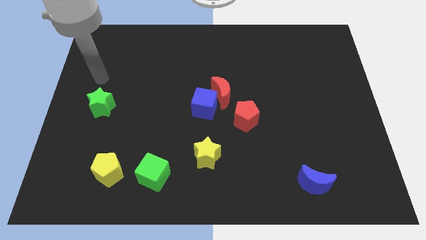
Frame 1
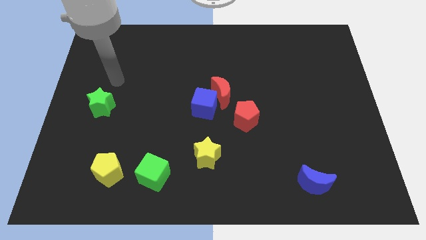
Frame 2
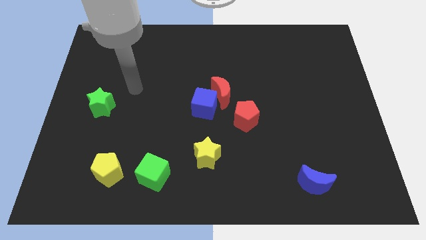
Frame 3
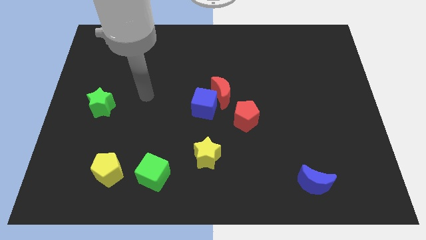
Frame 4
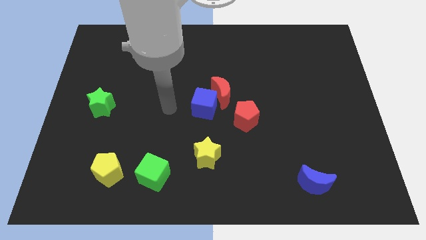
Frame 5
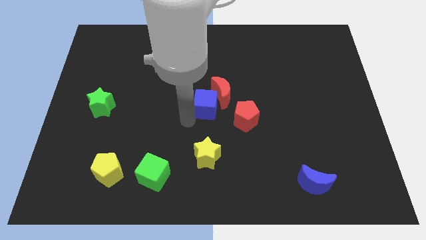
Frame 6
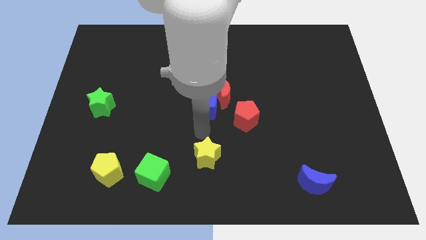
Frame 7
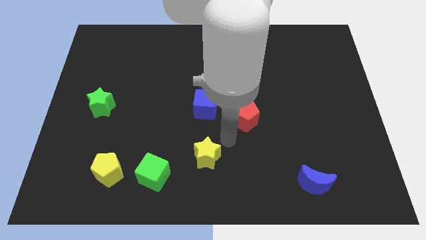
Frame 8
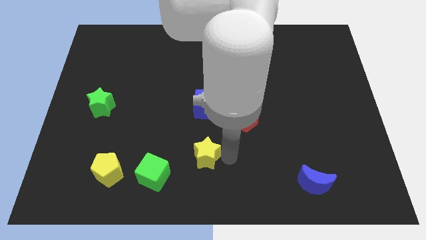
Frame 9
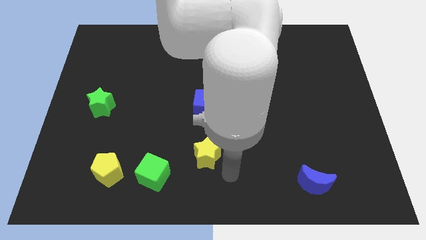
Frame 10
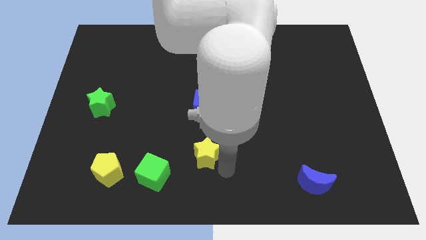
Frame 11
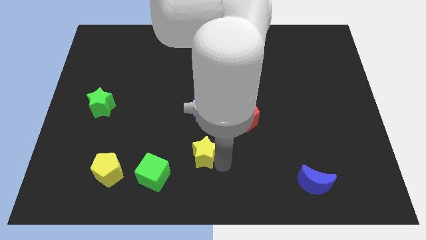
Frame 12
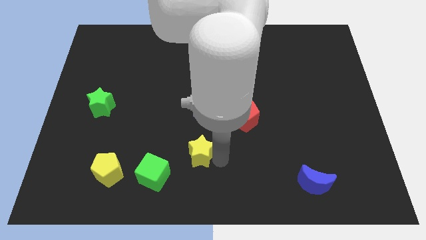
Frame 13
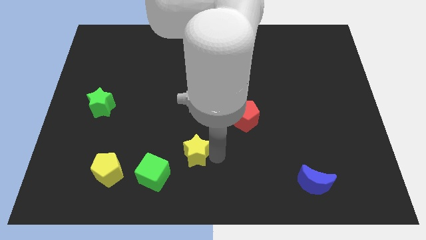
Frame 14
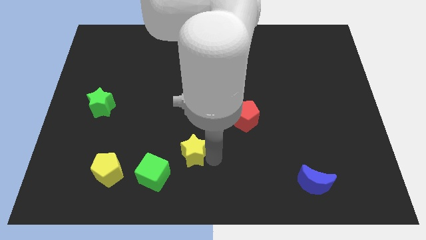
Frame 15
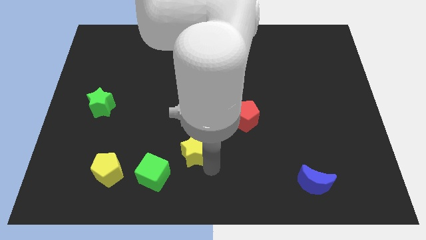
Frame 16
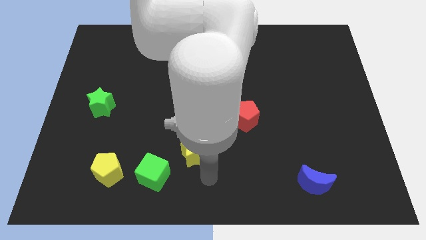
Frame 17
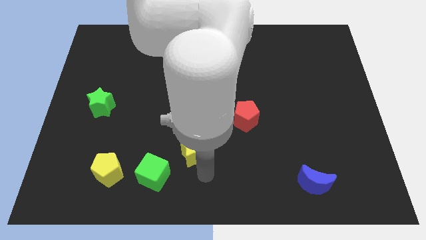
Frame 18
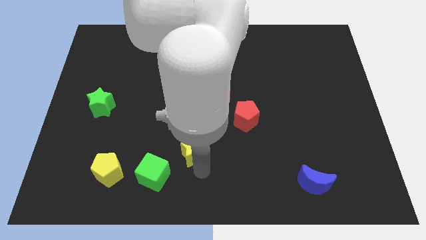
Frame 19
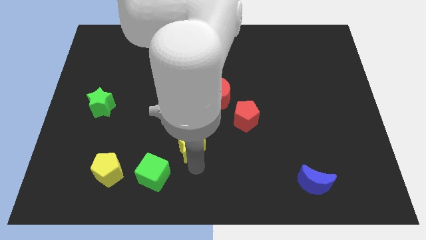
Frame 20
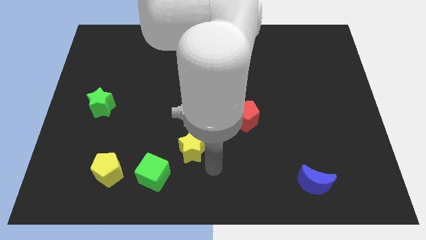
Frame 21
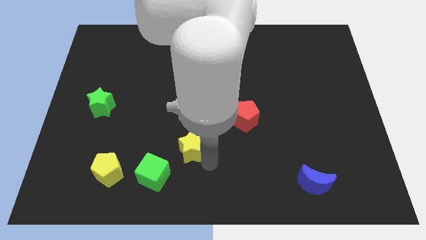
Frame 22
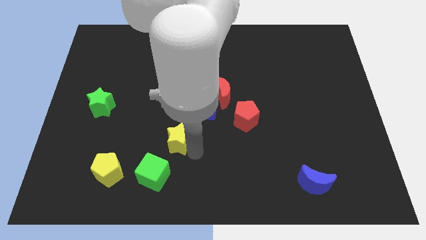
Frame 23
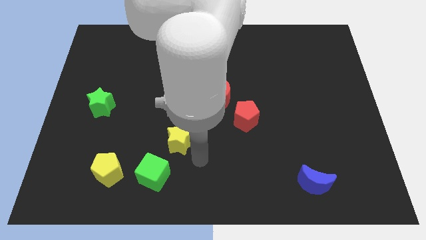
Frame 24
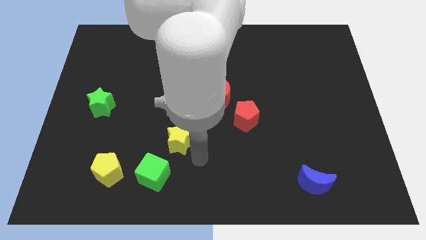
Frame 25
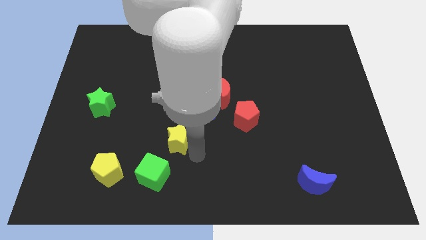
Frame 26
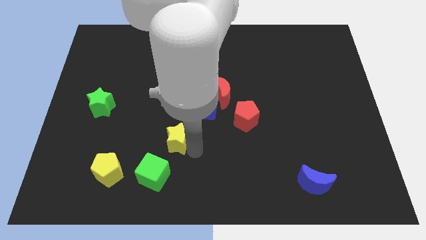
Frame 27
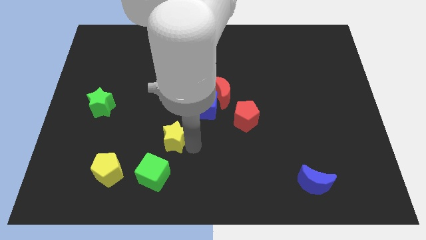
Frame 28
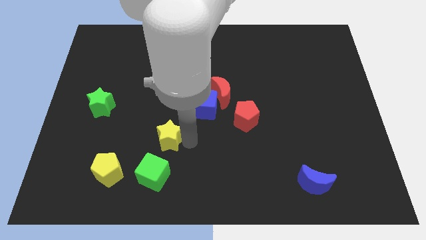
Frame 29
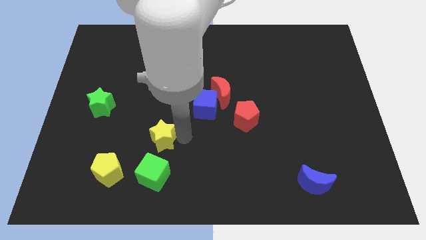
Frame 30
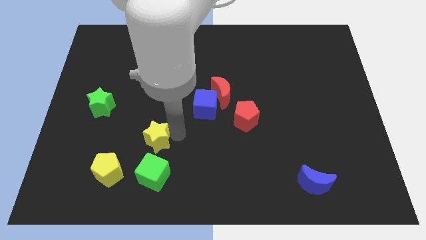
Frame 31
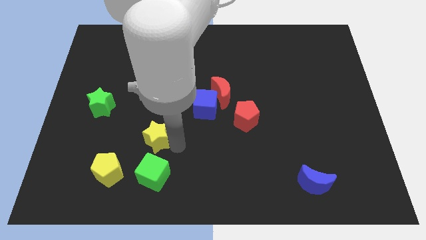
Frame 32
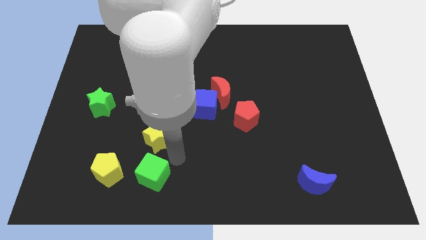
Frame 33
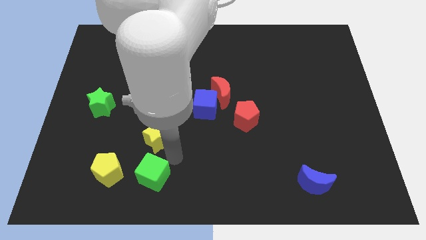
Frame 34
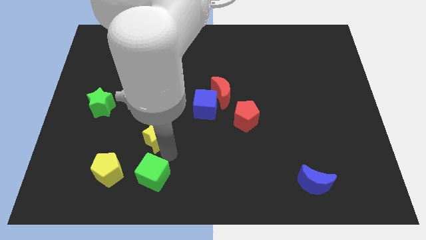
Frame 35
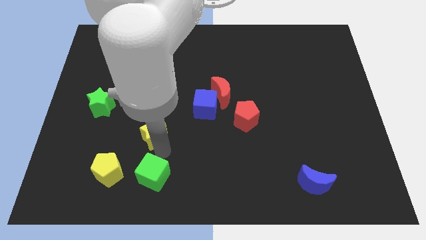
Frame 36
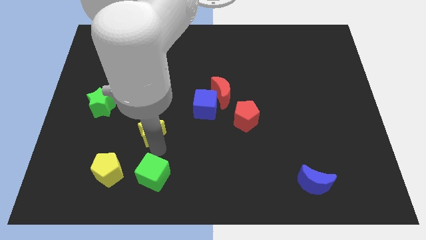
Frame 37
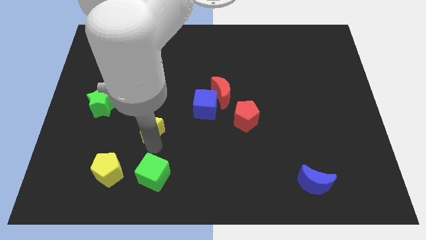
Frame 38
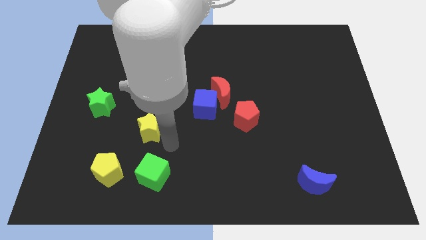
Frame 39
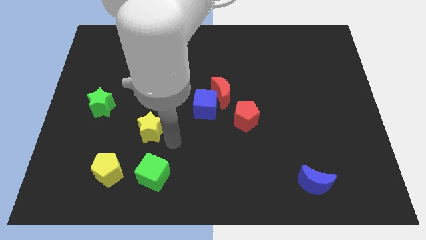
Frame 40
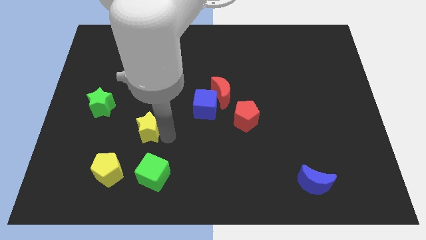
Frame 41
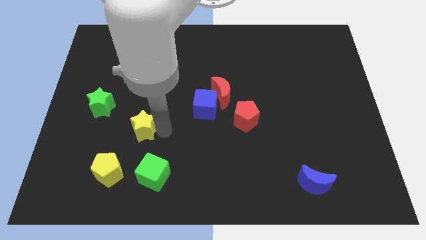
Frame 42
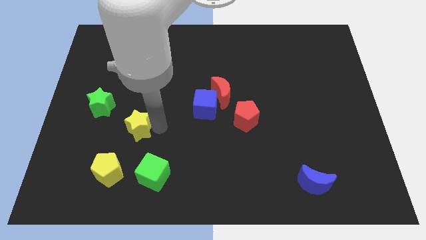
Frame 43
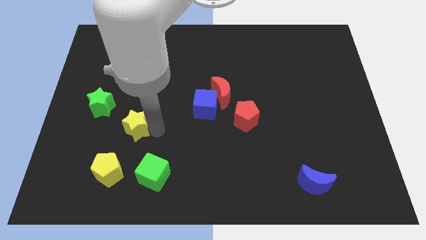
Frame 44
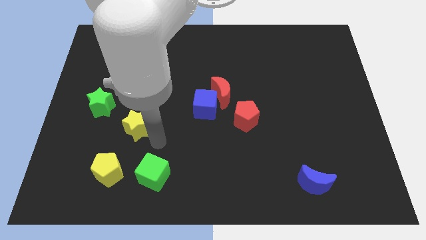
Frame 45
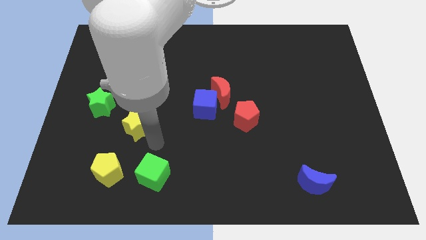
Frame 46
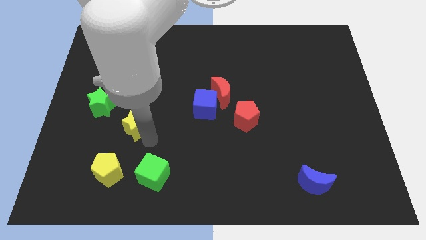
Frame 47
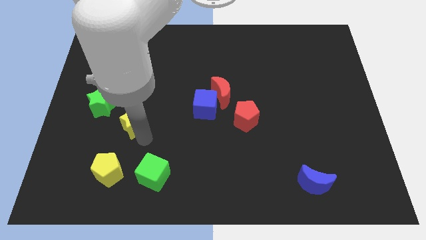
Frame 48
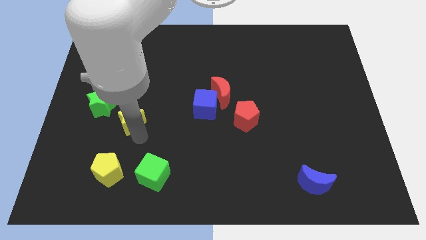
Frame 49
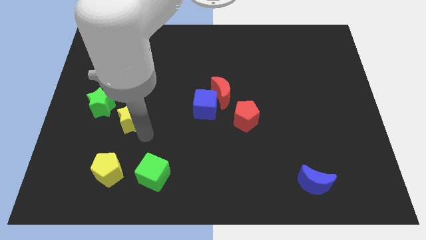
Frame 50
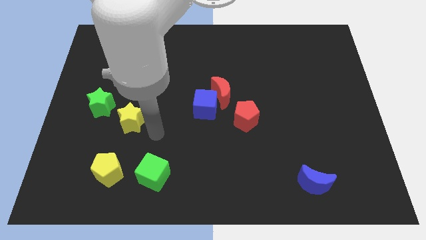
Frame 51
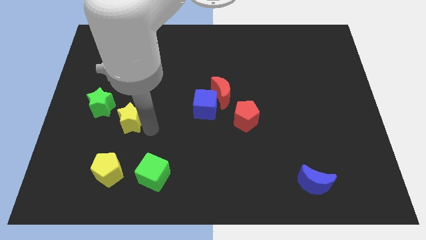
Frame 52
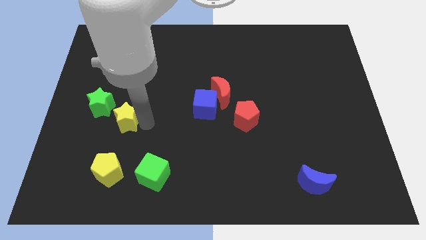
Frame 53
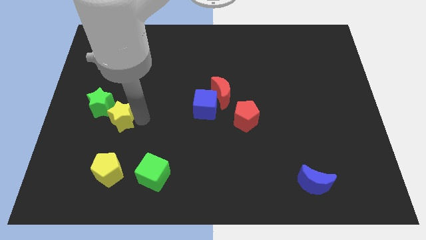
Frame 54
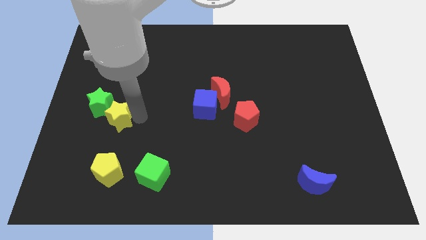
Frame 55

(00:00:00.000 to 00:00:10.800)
push the yellow star towards the green star

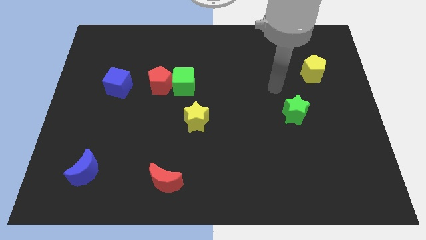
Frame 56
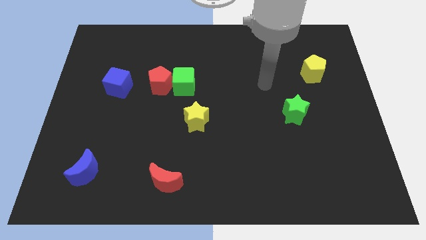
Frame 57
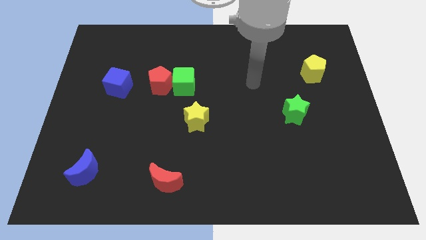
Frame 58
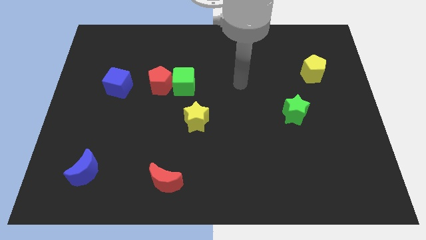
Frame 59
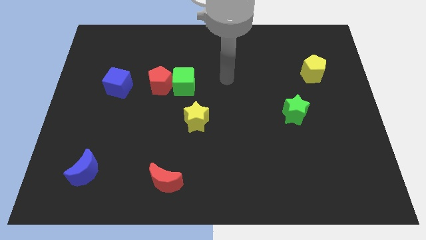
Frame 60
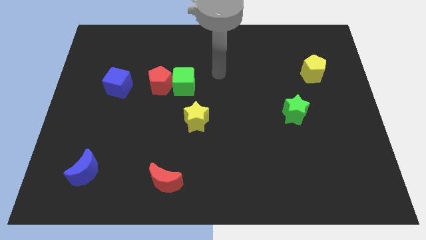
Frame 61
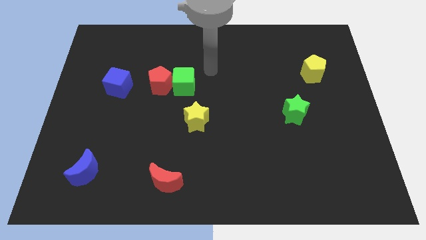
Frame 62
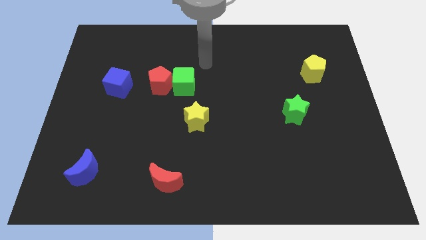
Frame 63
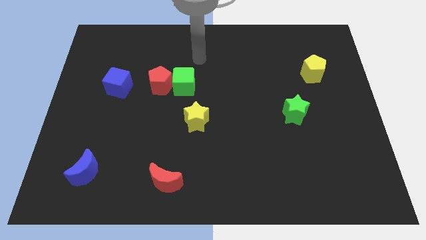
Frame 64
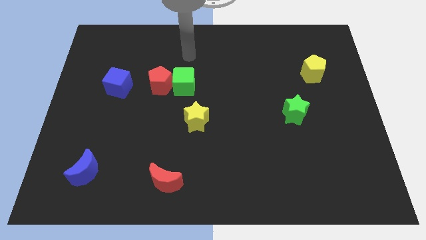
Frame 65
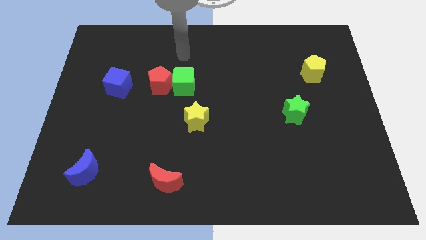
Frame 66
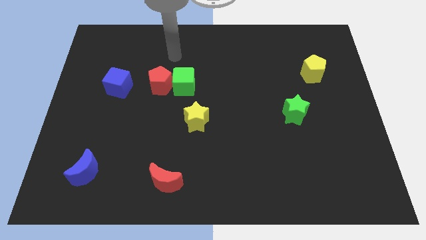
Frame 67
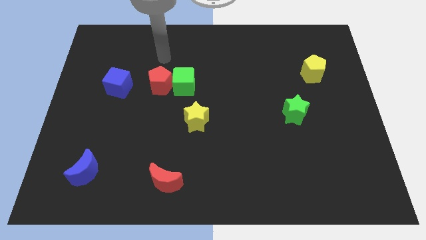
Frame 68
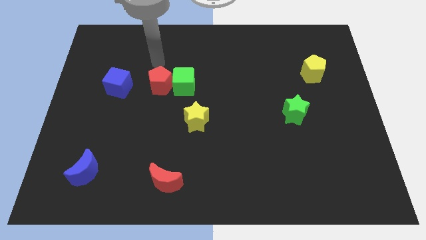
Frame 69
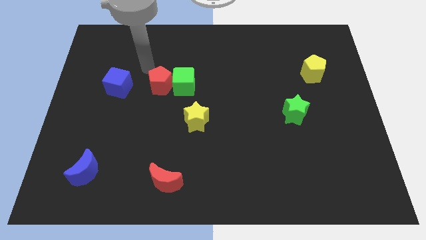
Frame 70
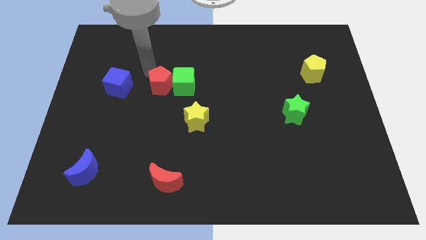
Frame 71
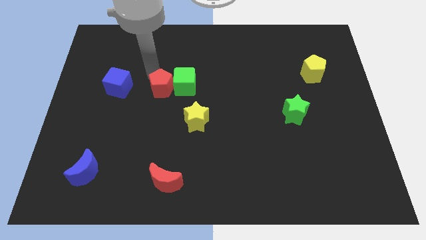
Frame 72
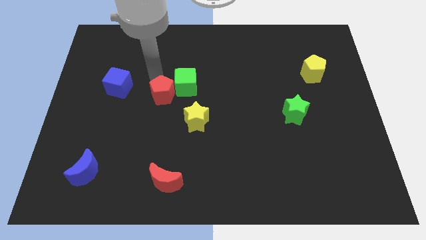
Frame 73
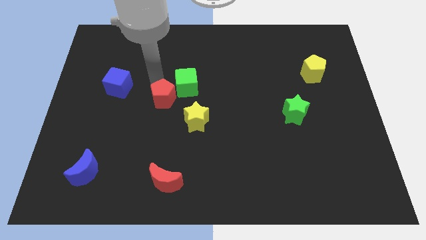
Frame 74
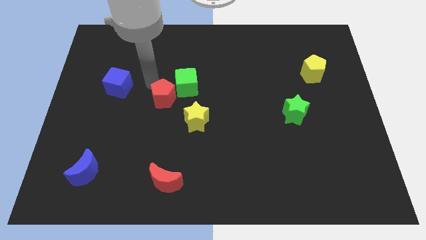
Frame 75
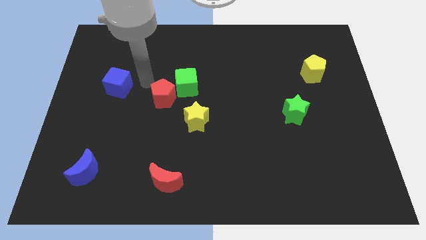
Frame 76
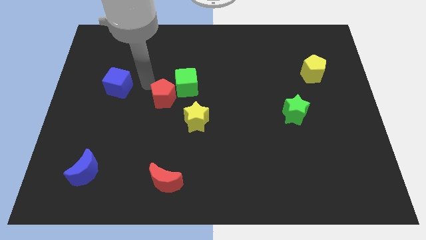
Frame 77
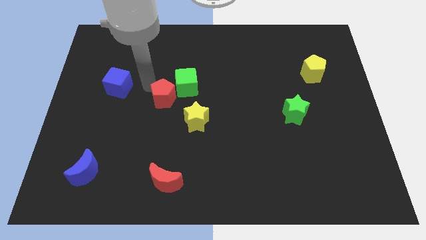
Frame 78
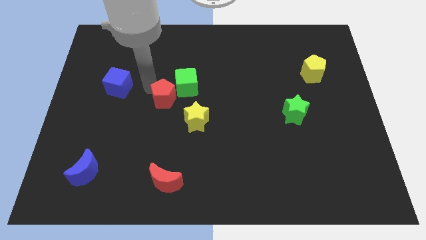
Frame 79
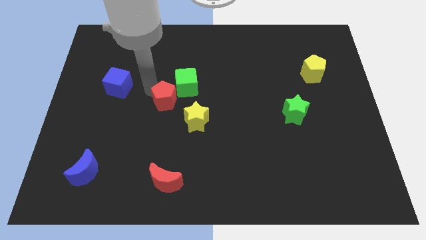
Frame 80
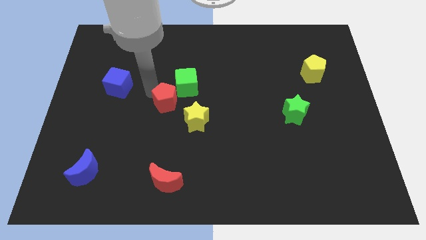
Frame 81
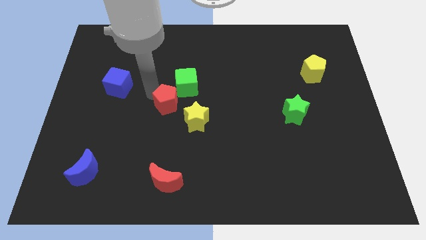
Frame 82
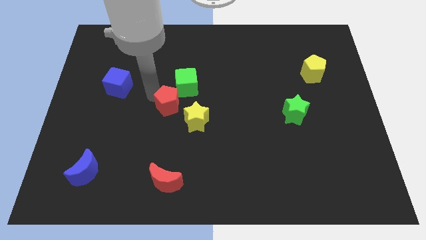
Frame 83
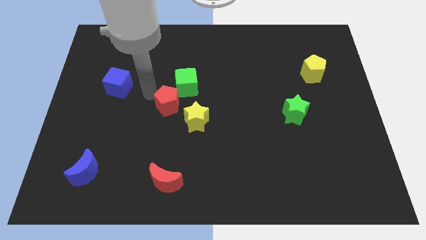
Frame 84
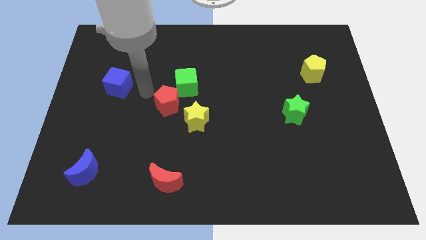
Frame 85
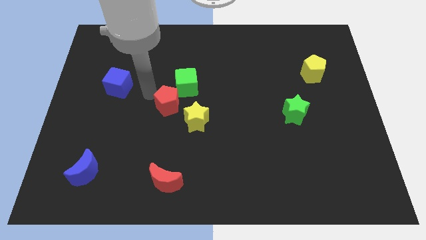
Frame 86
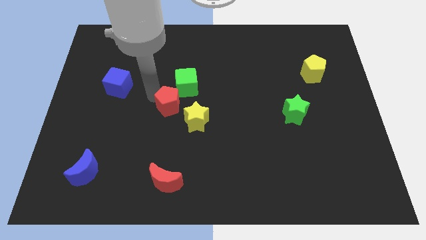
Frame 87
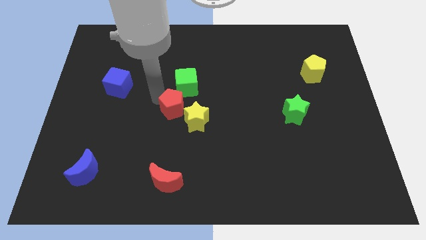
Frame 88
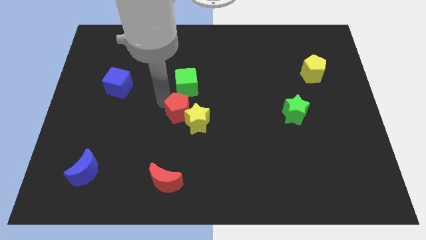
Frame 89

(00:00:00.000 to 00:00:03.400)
slide the red pentagon towards the yellow star
